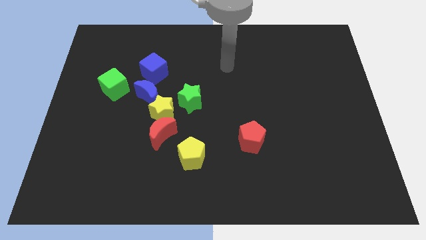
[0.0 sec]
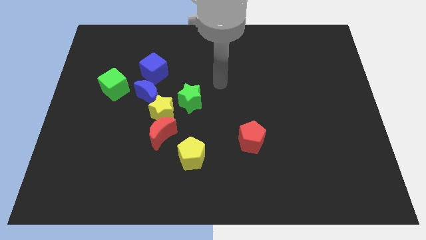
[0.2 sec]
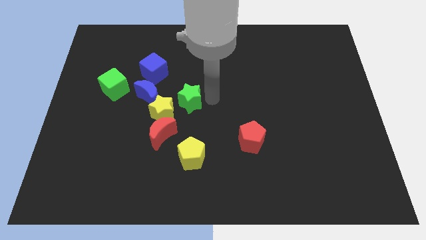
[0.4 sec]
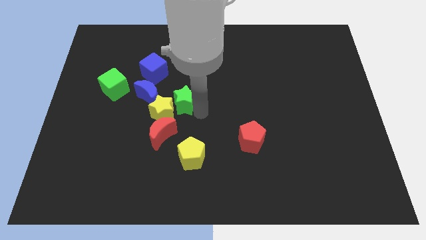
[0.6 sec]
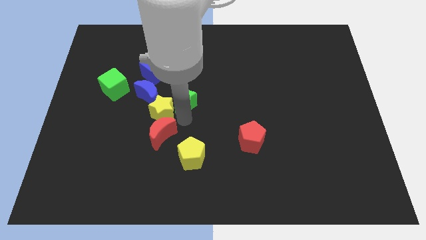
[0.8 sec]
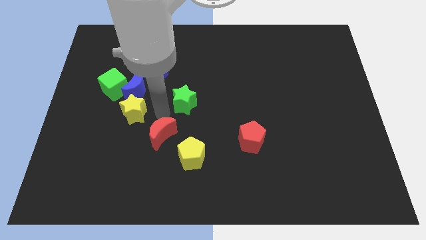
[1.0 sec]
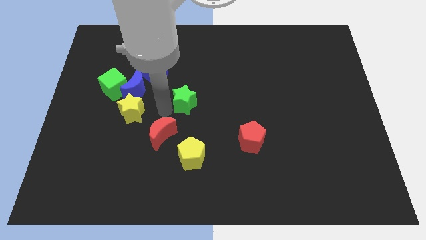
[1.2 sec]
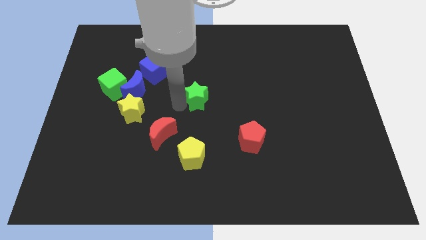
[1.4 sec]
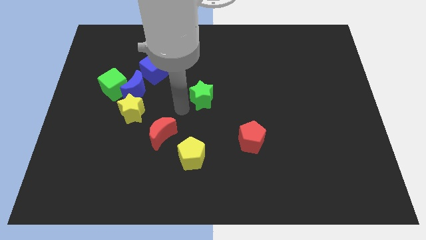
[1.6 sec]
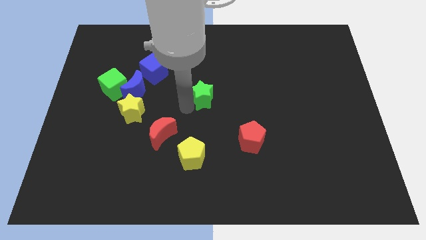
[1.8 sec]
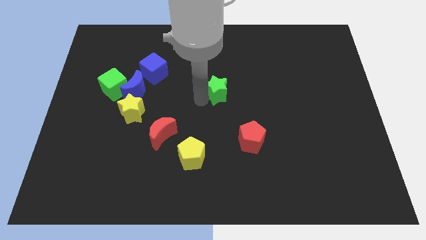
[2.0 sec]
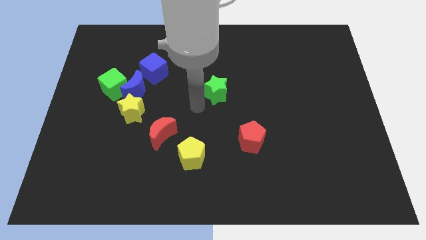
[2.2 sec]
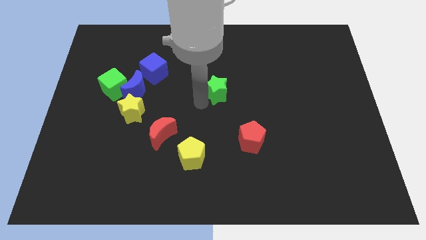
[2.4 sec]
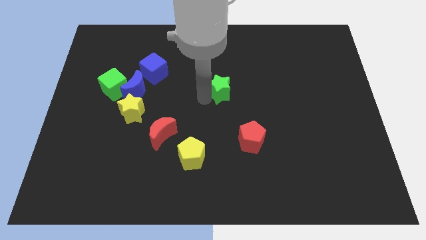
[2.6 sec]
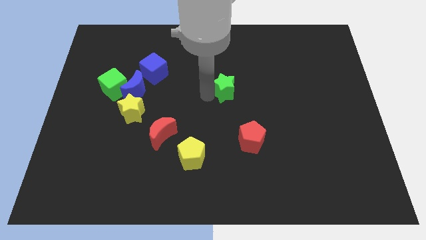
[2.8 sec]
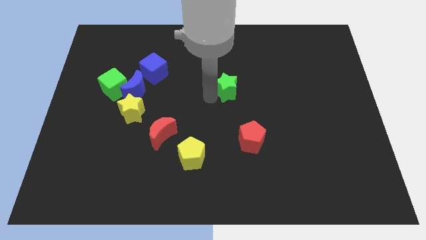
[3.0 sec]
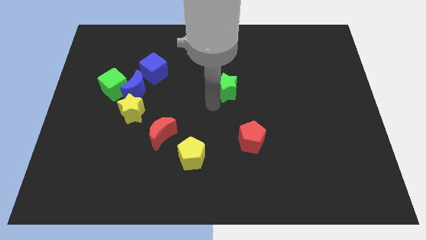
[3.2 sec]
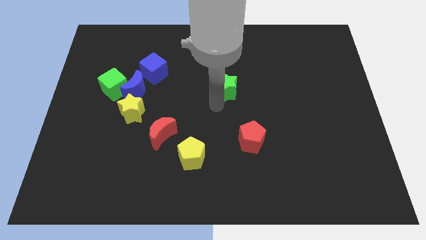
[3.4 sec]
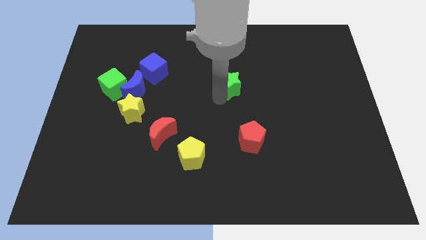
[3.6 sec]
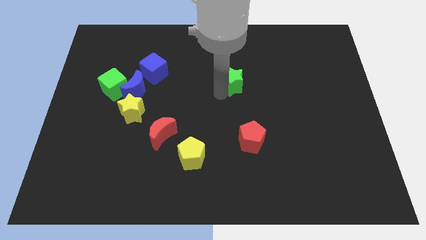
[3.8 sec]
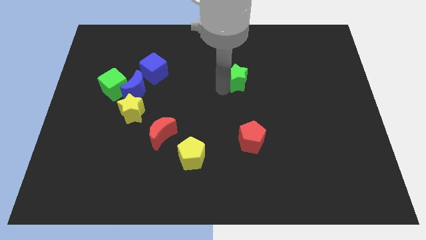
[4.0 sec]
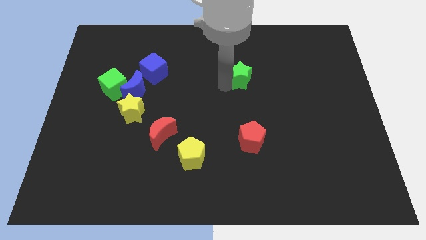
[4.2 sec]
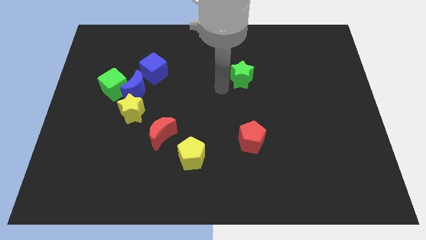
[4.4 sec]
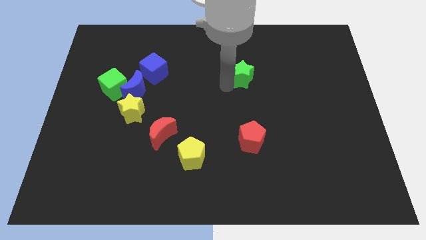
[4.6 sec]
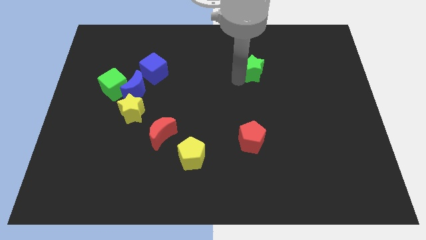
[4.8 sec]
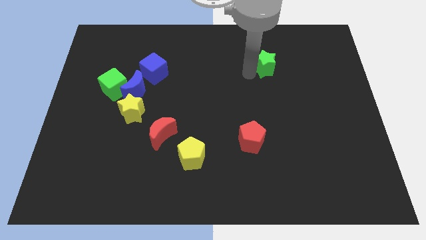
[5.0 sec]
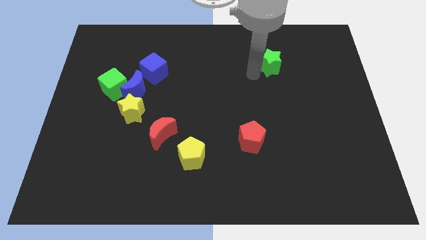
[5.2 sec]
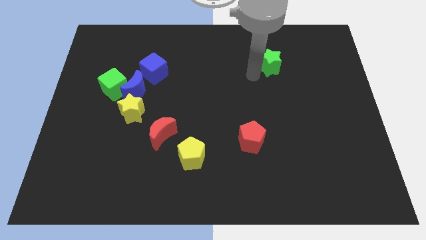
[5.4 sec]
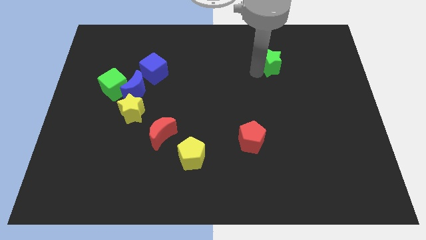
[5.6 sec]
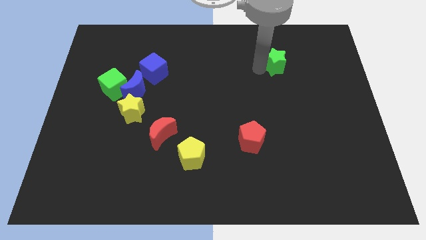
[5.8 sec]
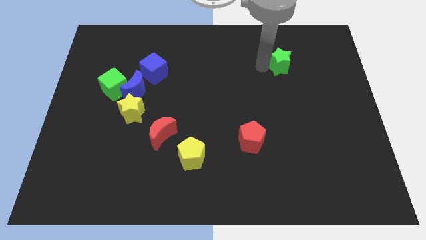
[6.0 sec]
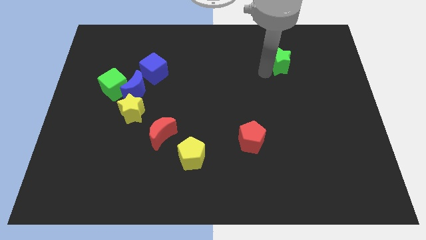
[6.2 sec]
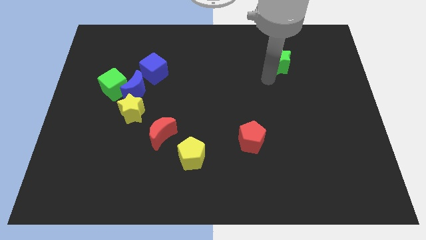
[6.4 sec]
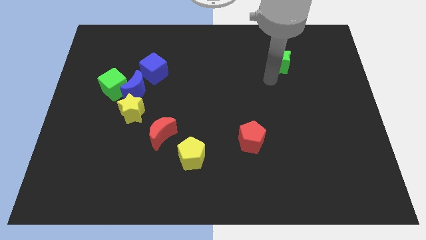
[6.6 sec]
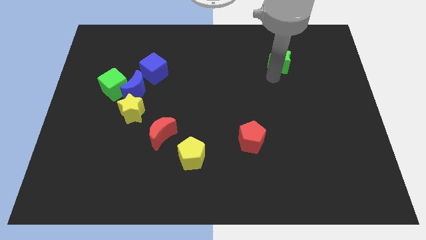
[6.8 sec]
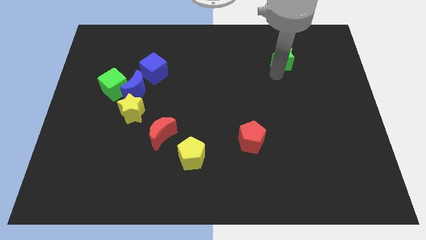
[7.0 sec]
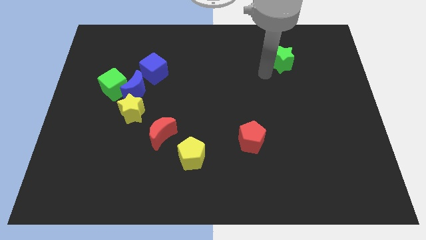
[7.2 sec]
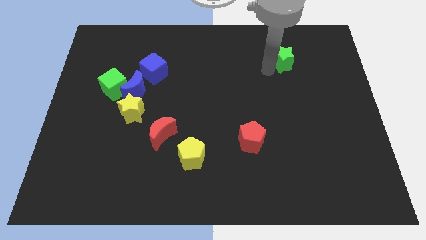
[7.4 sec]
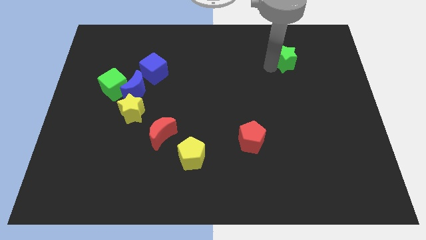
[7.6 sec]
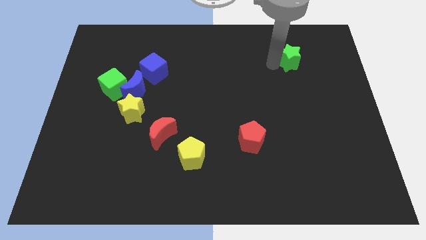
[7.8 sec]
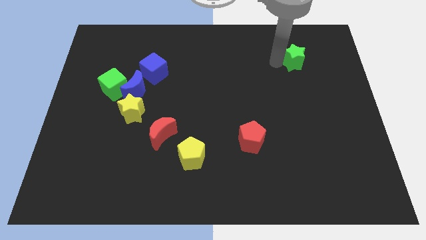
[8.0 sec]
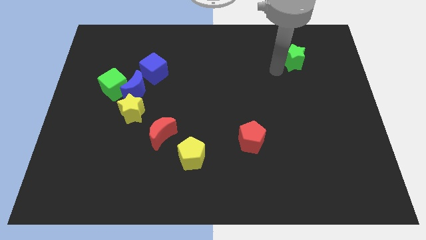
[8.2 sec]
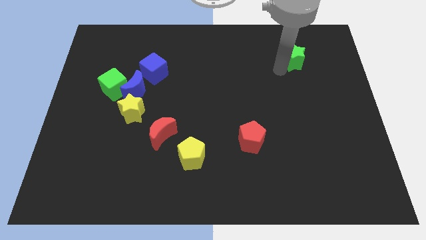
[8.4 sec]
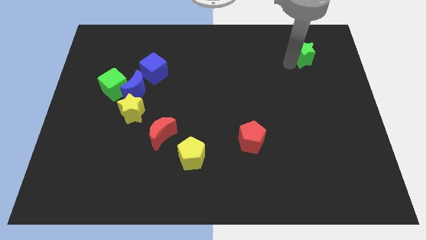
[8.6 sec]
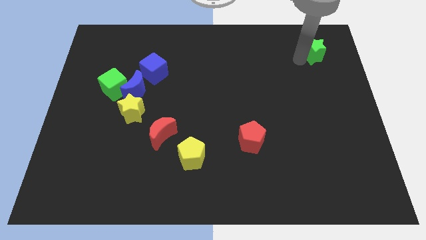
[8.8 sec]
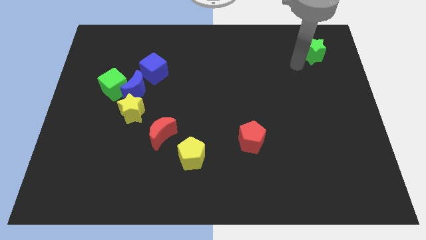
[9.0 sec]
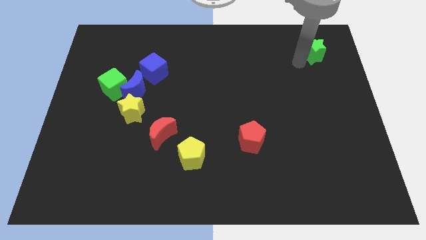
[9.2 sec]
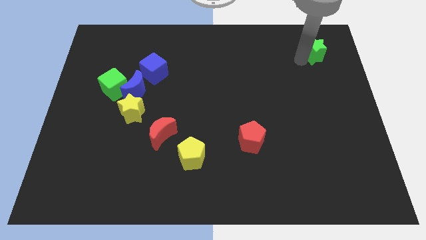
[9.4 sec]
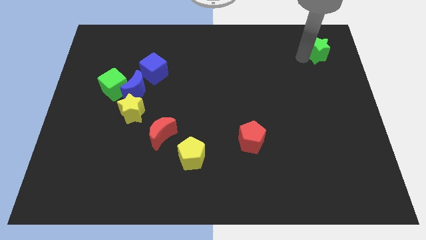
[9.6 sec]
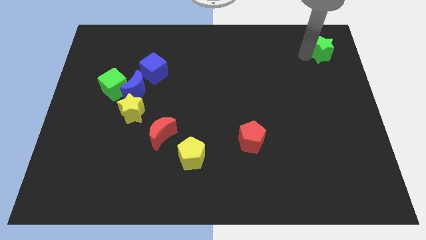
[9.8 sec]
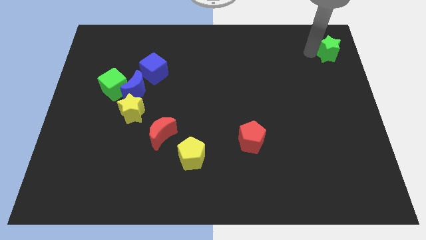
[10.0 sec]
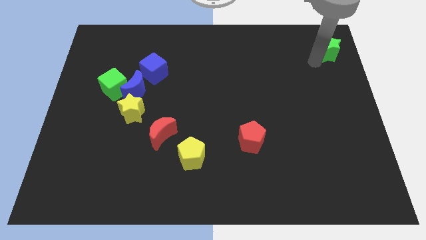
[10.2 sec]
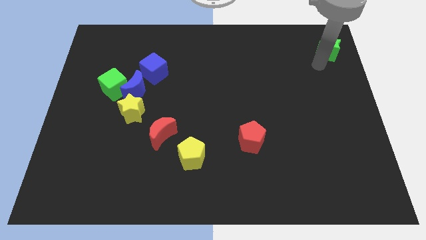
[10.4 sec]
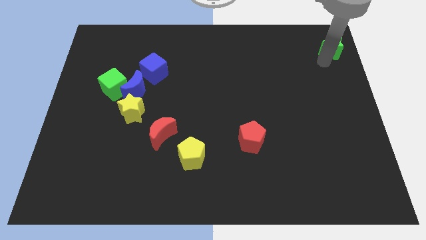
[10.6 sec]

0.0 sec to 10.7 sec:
slide the green star to the top right

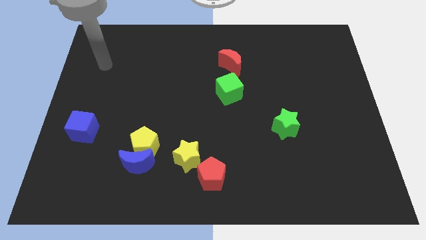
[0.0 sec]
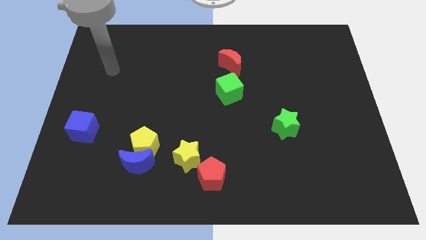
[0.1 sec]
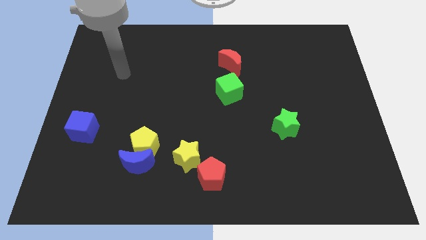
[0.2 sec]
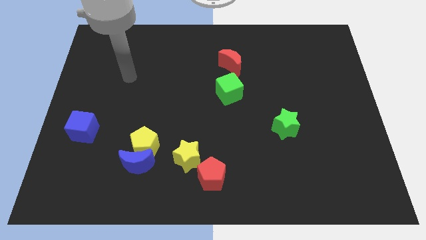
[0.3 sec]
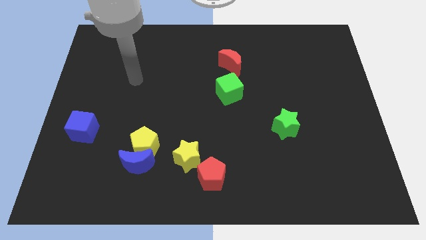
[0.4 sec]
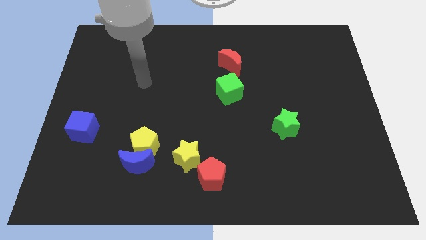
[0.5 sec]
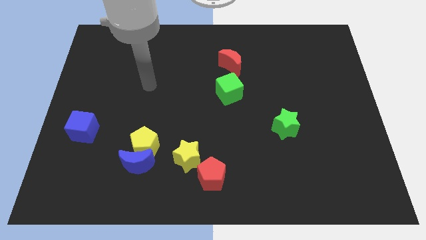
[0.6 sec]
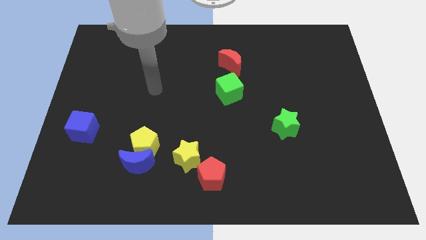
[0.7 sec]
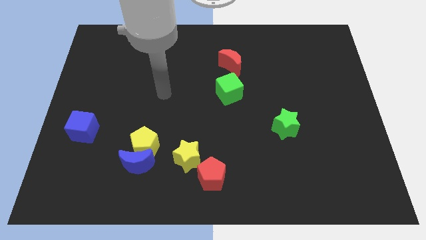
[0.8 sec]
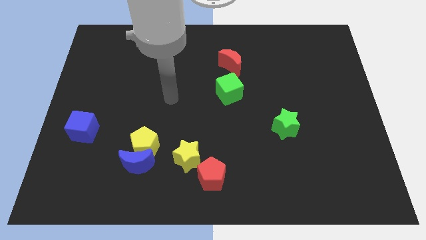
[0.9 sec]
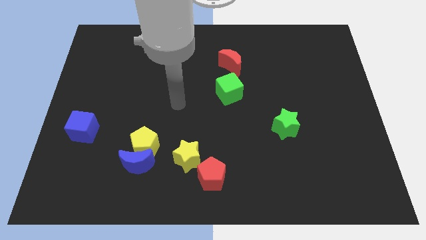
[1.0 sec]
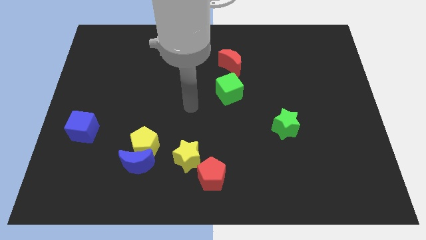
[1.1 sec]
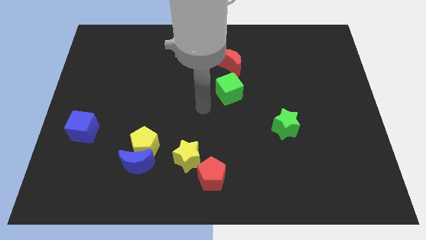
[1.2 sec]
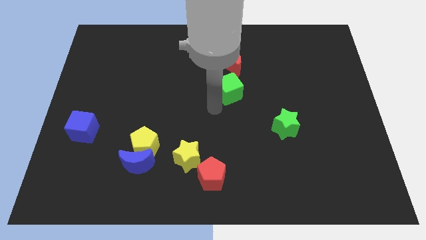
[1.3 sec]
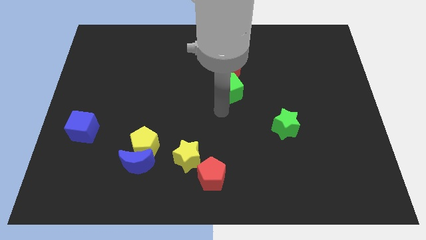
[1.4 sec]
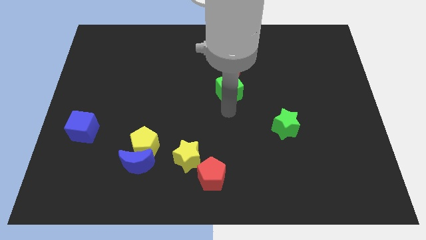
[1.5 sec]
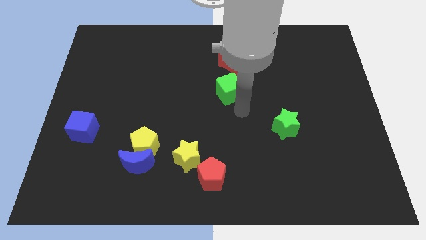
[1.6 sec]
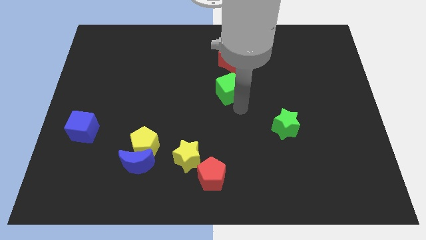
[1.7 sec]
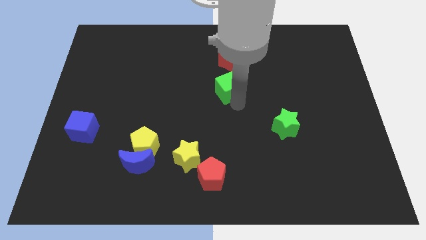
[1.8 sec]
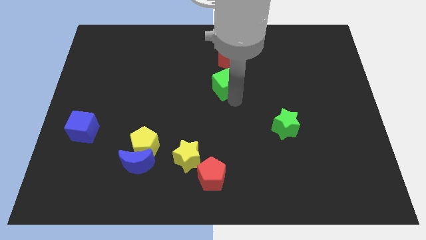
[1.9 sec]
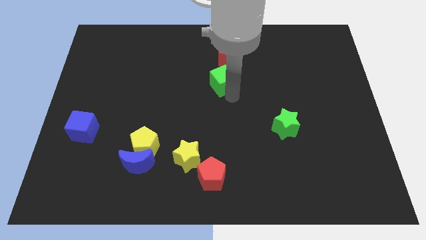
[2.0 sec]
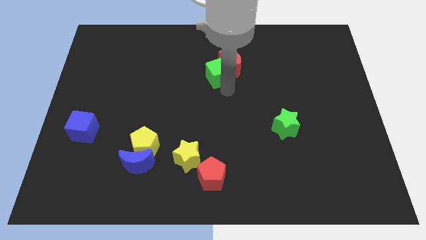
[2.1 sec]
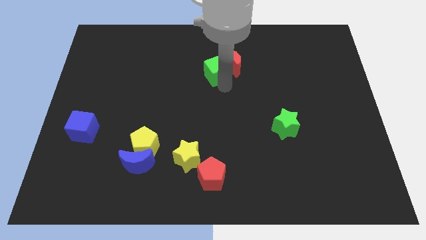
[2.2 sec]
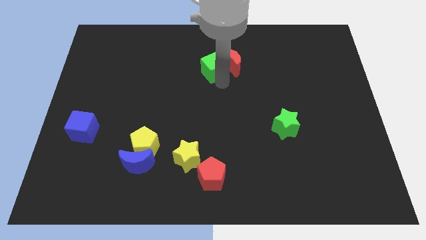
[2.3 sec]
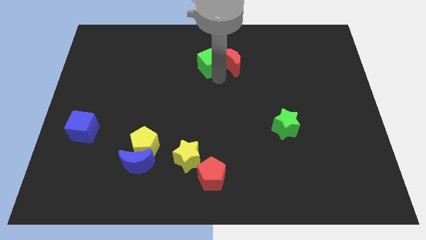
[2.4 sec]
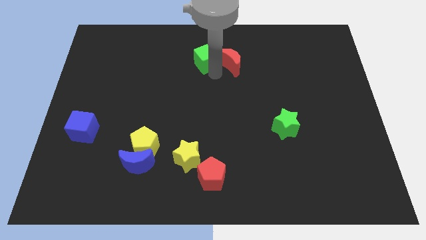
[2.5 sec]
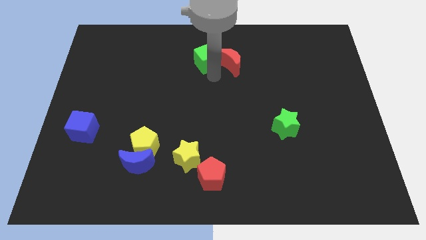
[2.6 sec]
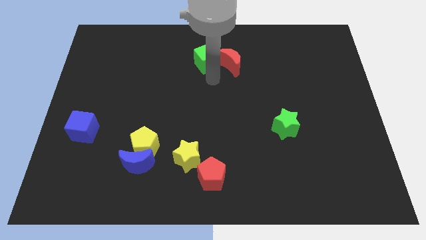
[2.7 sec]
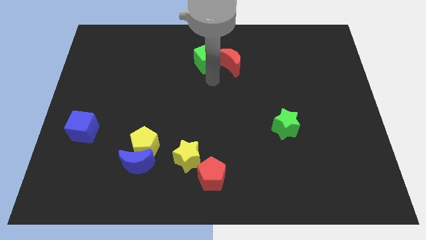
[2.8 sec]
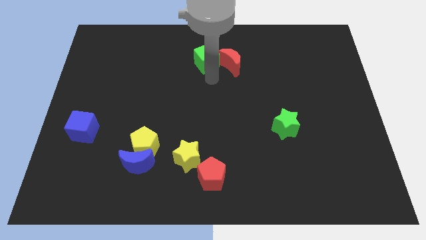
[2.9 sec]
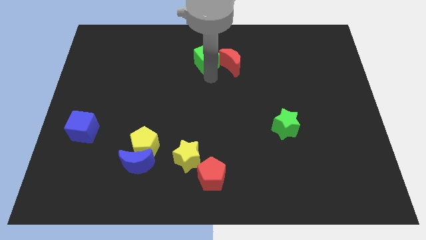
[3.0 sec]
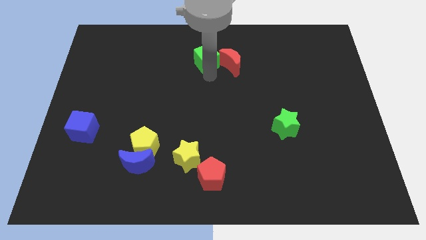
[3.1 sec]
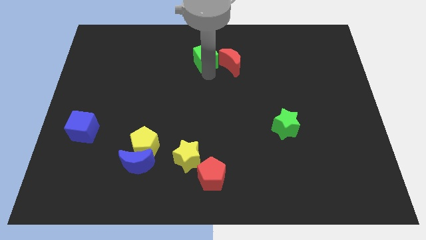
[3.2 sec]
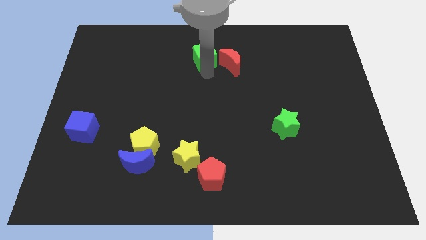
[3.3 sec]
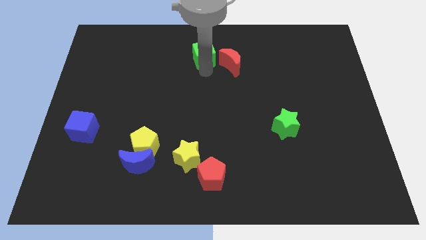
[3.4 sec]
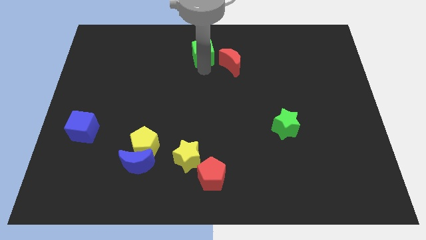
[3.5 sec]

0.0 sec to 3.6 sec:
push the green cube to the top side
